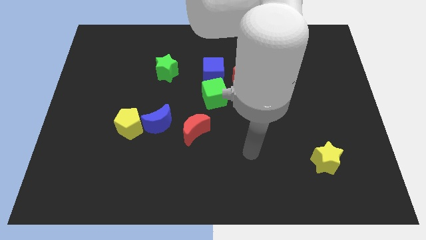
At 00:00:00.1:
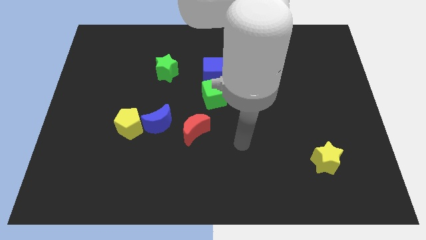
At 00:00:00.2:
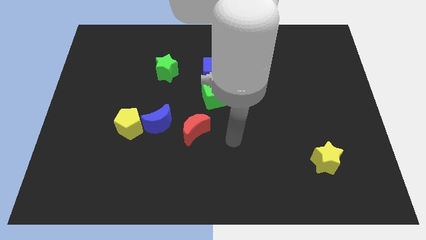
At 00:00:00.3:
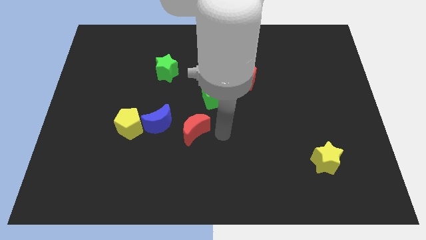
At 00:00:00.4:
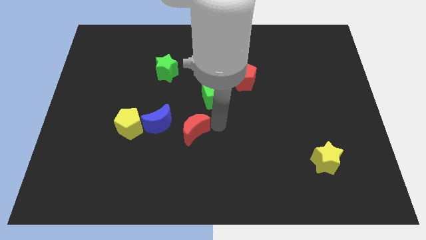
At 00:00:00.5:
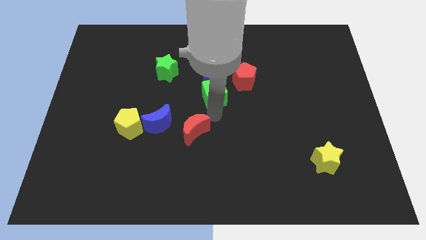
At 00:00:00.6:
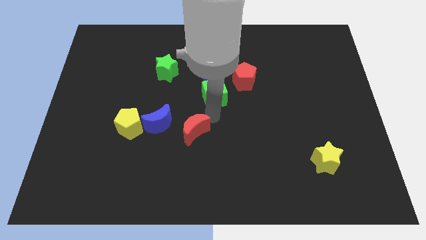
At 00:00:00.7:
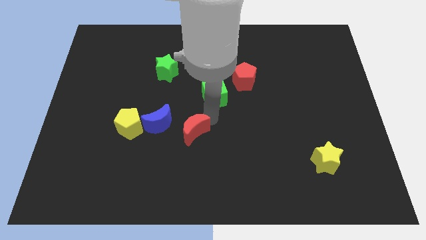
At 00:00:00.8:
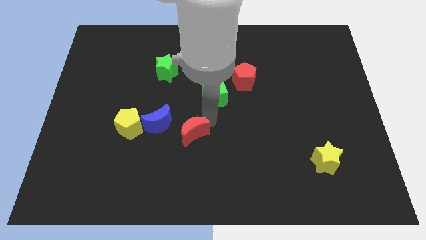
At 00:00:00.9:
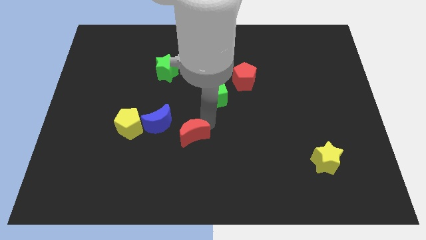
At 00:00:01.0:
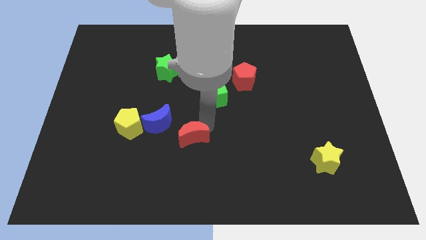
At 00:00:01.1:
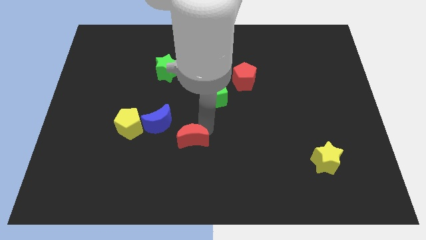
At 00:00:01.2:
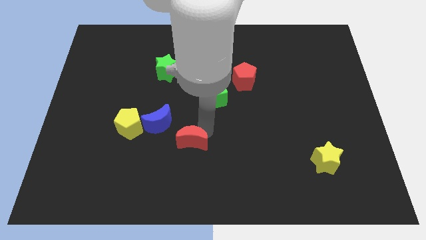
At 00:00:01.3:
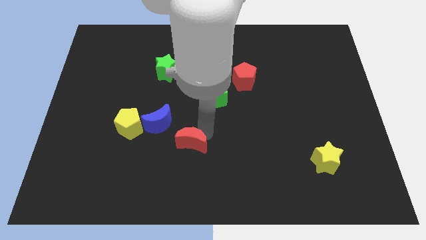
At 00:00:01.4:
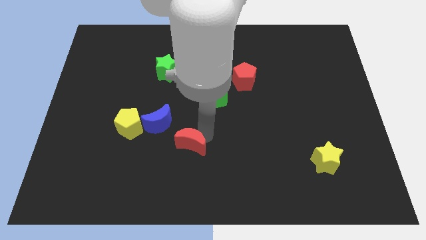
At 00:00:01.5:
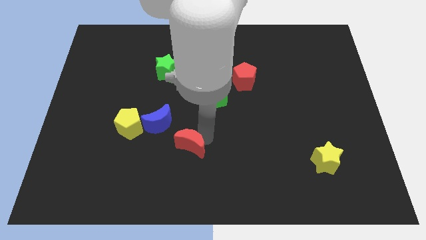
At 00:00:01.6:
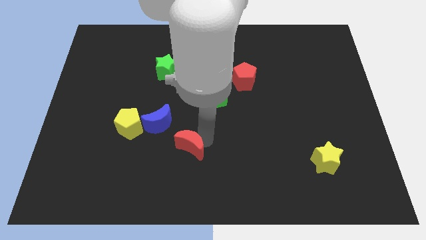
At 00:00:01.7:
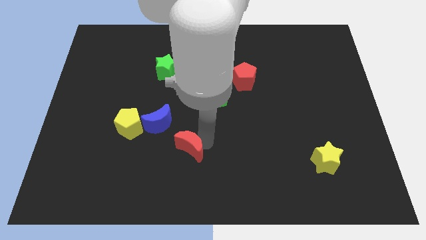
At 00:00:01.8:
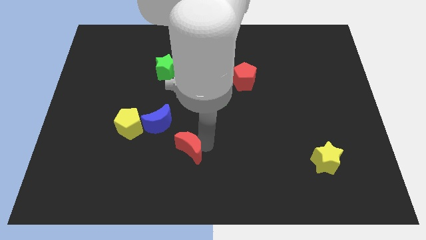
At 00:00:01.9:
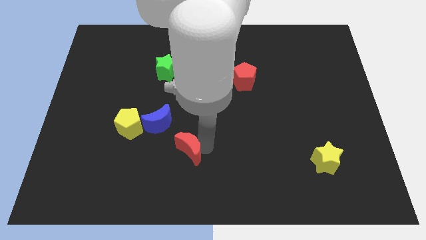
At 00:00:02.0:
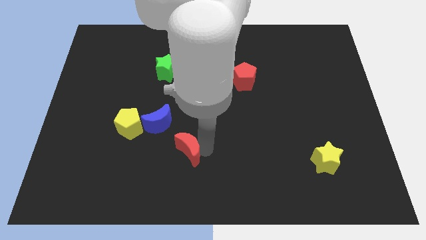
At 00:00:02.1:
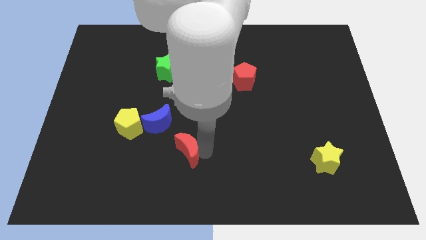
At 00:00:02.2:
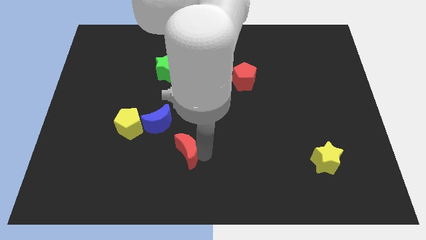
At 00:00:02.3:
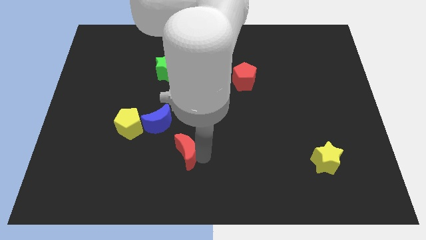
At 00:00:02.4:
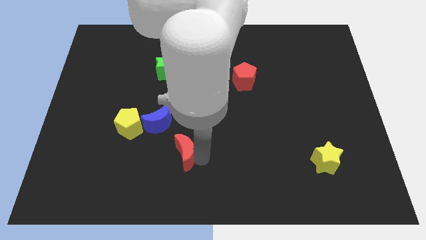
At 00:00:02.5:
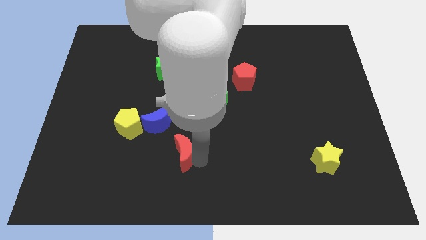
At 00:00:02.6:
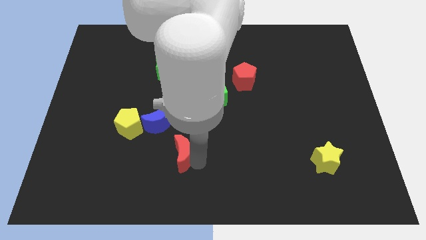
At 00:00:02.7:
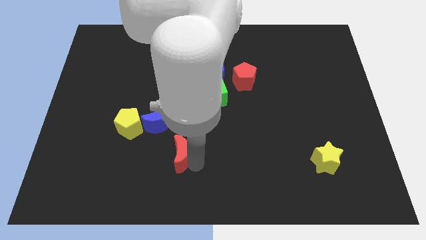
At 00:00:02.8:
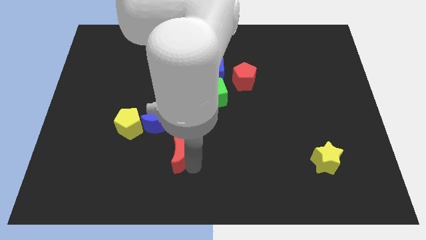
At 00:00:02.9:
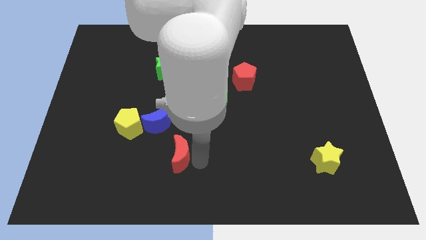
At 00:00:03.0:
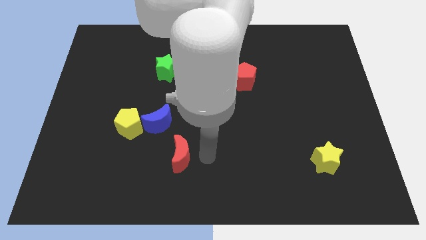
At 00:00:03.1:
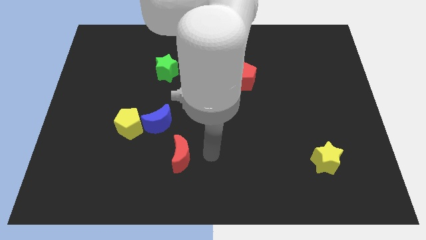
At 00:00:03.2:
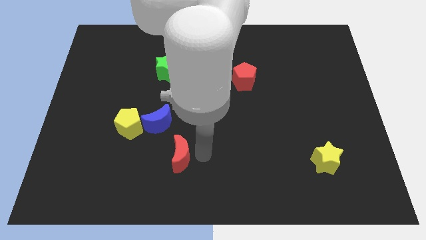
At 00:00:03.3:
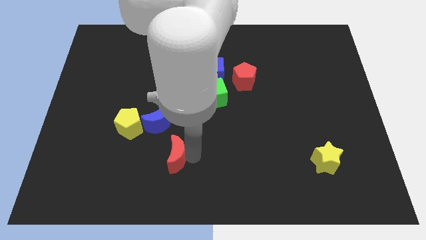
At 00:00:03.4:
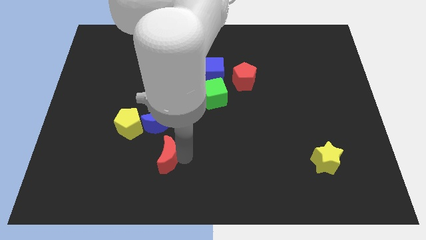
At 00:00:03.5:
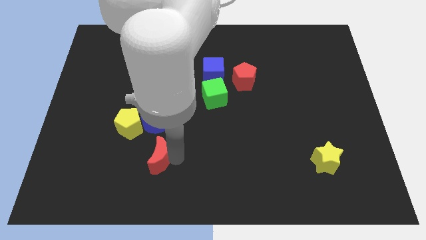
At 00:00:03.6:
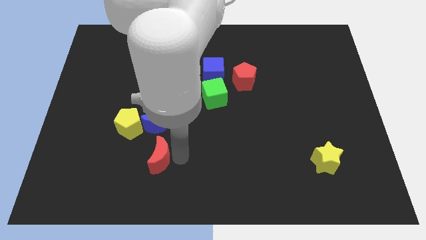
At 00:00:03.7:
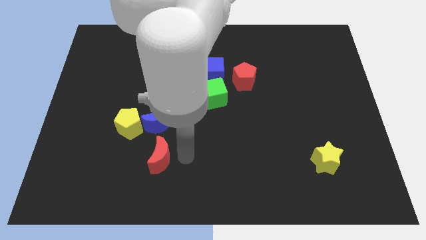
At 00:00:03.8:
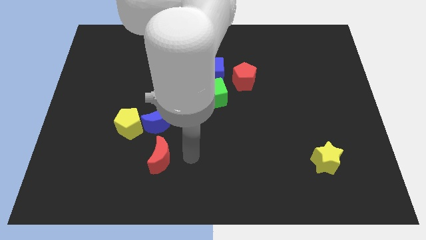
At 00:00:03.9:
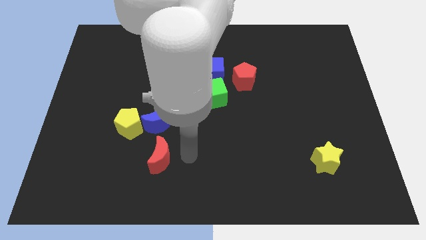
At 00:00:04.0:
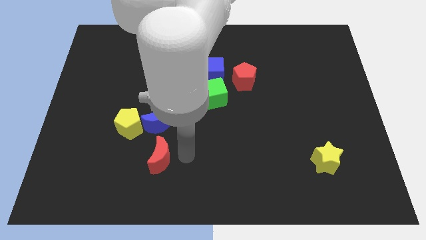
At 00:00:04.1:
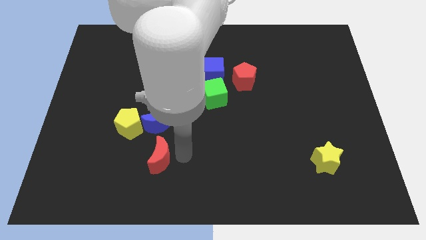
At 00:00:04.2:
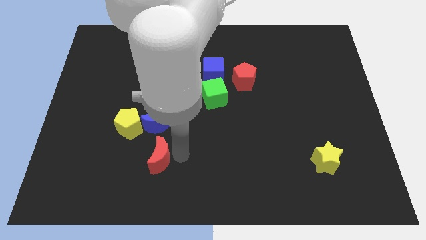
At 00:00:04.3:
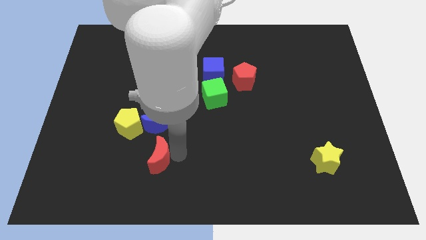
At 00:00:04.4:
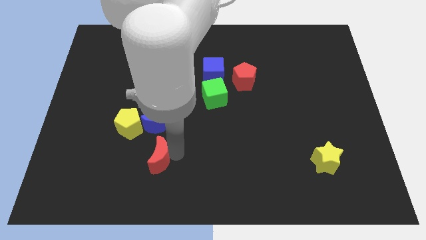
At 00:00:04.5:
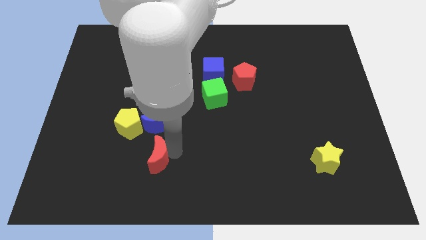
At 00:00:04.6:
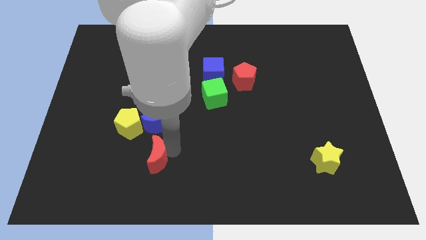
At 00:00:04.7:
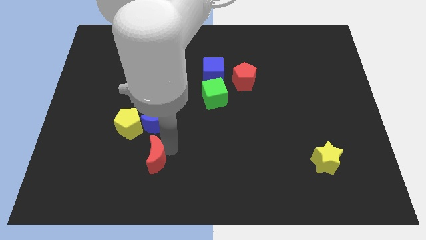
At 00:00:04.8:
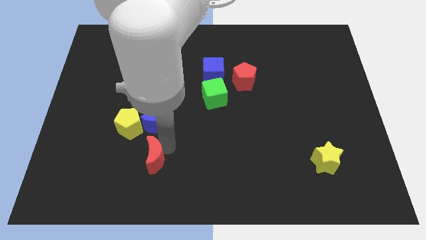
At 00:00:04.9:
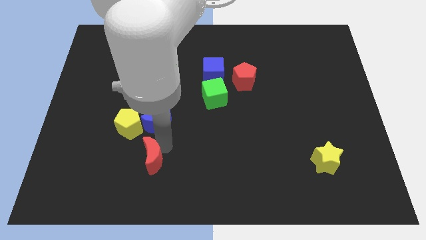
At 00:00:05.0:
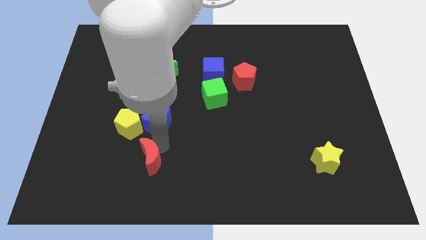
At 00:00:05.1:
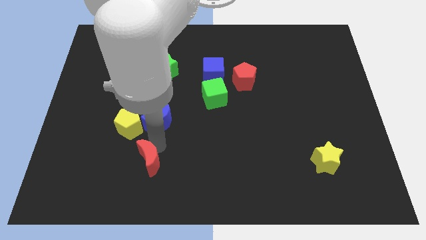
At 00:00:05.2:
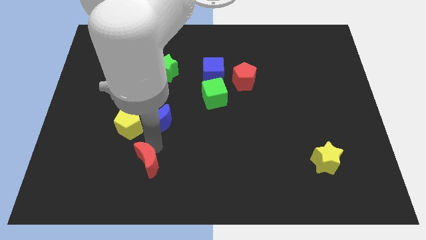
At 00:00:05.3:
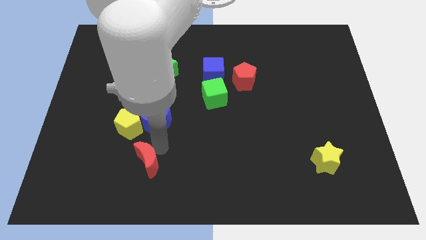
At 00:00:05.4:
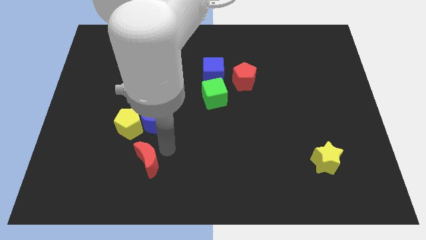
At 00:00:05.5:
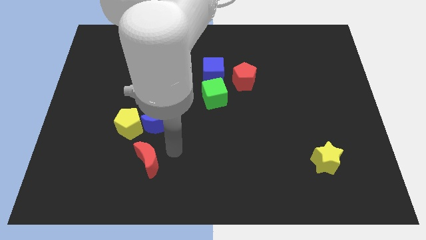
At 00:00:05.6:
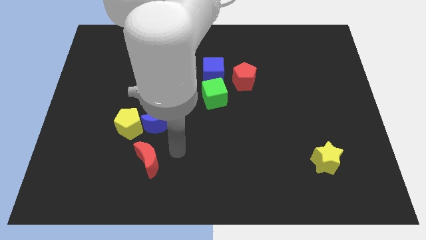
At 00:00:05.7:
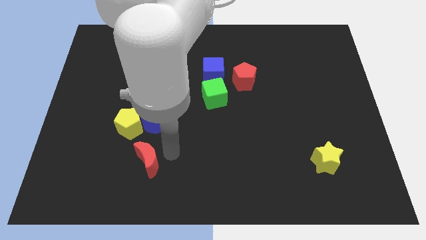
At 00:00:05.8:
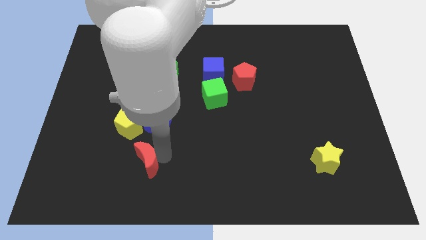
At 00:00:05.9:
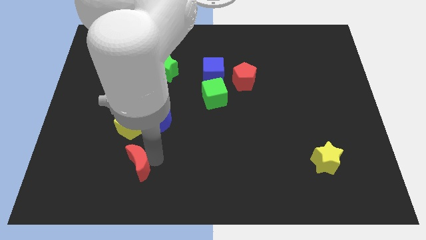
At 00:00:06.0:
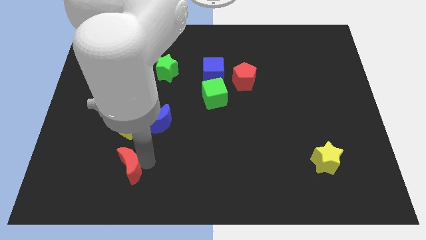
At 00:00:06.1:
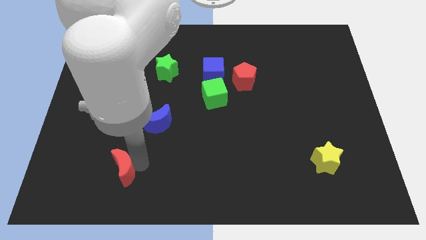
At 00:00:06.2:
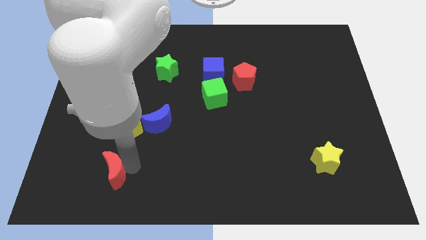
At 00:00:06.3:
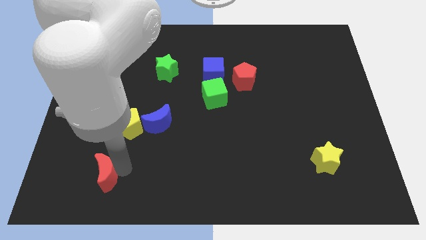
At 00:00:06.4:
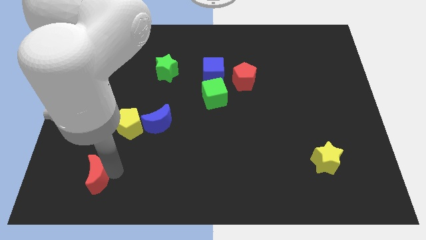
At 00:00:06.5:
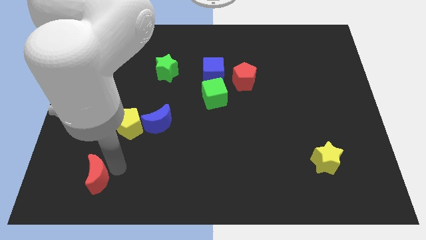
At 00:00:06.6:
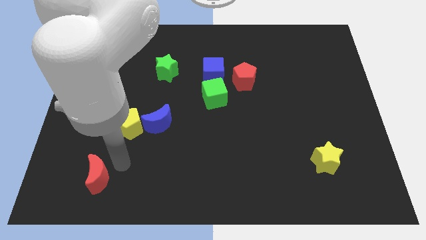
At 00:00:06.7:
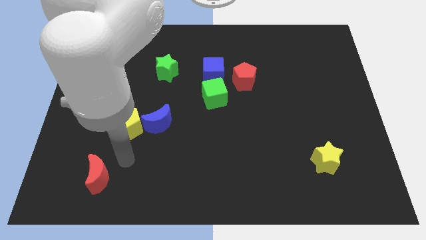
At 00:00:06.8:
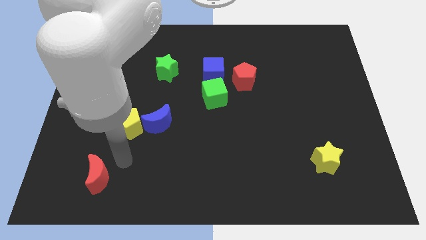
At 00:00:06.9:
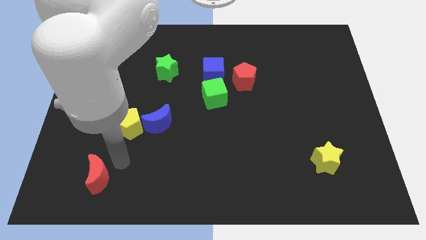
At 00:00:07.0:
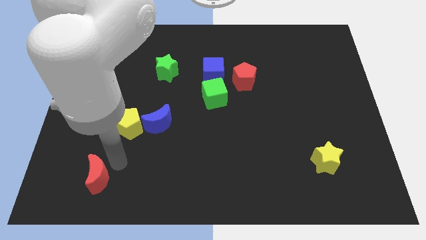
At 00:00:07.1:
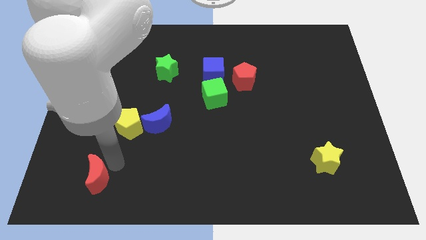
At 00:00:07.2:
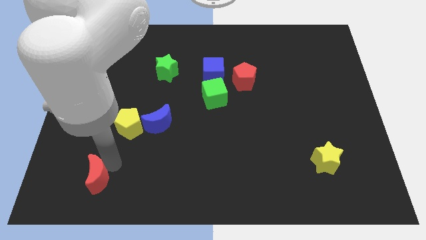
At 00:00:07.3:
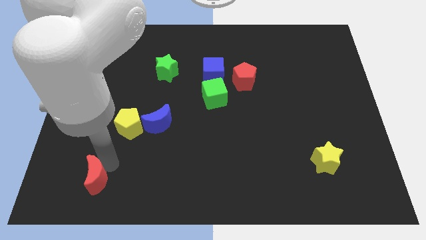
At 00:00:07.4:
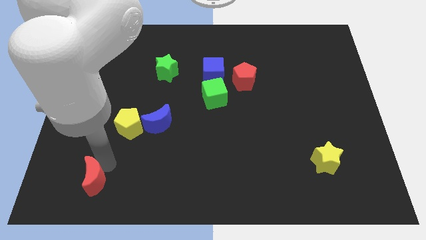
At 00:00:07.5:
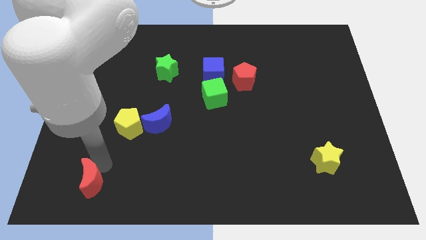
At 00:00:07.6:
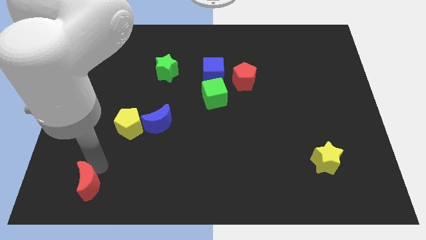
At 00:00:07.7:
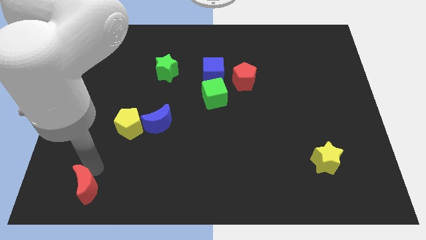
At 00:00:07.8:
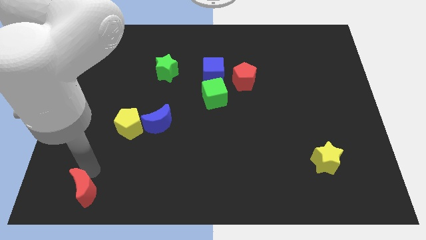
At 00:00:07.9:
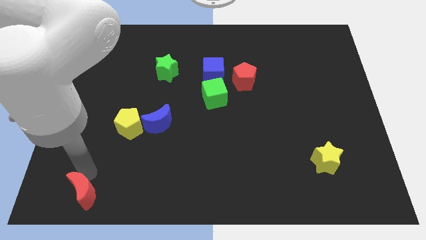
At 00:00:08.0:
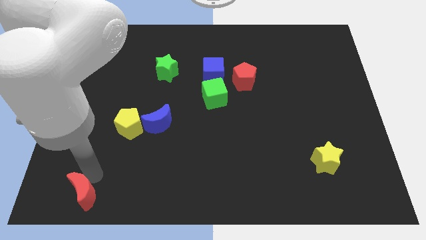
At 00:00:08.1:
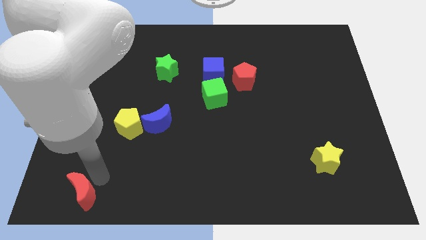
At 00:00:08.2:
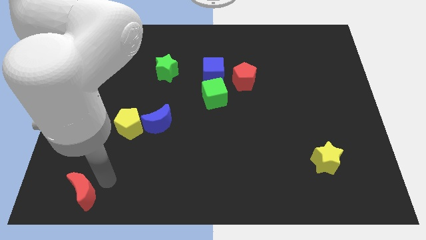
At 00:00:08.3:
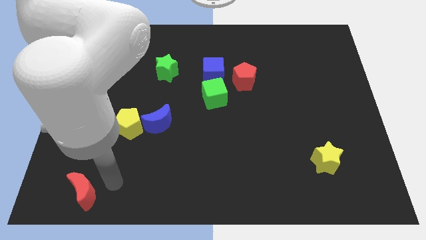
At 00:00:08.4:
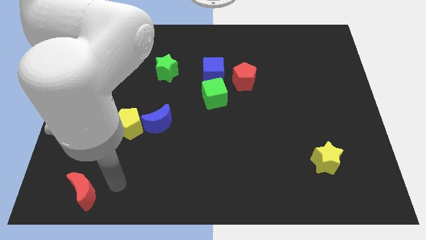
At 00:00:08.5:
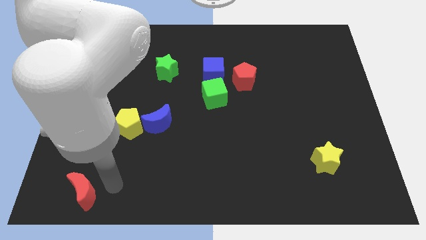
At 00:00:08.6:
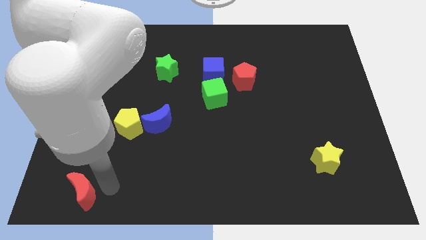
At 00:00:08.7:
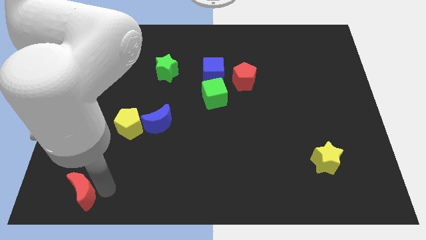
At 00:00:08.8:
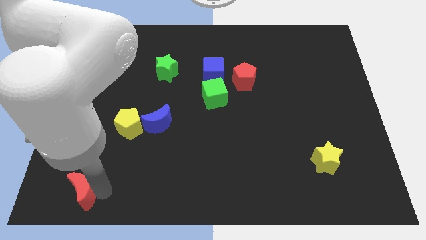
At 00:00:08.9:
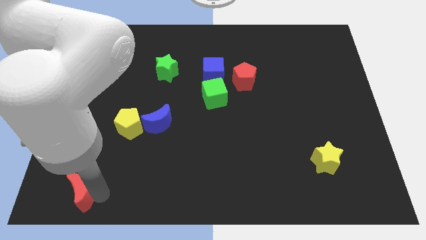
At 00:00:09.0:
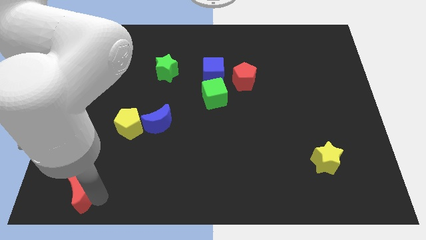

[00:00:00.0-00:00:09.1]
put the red moon to the bottom left corner
